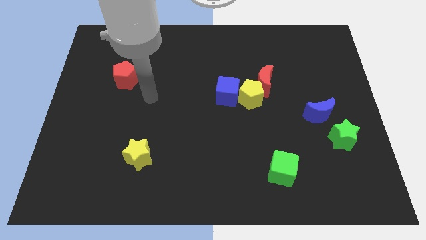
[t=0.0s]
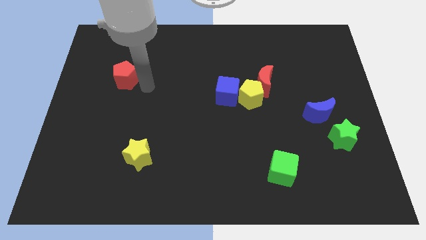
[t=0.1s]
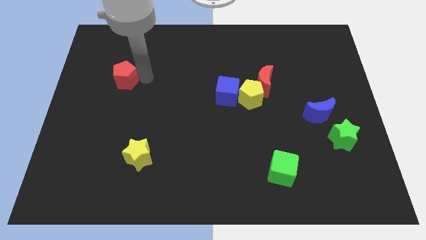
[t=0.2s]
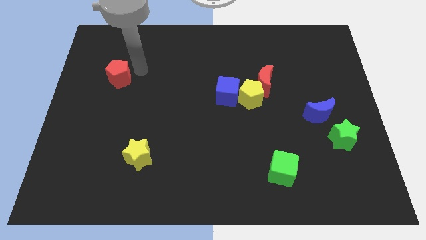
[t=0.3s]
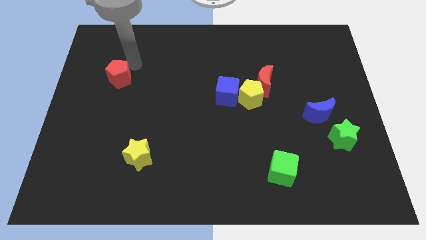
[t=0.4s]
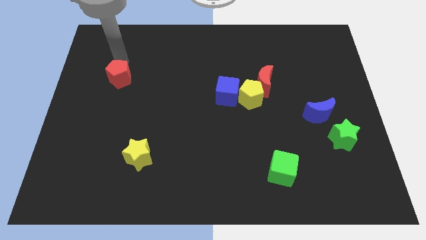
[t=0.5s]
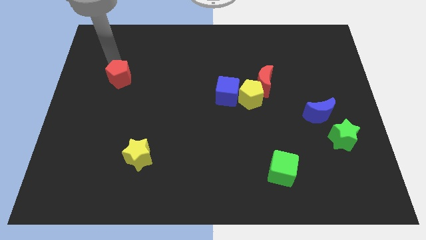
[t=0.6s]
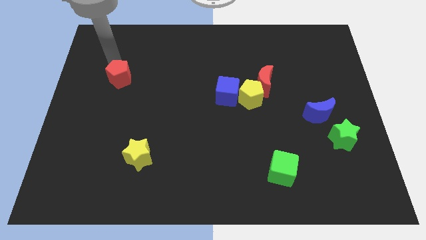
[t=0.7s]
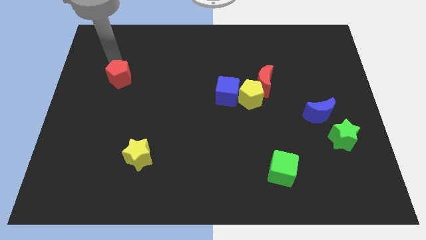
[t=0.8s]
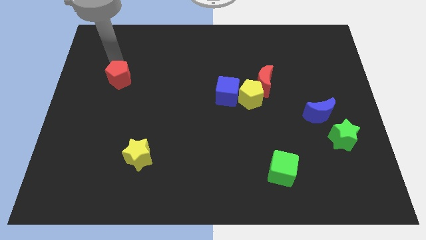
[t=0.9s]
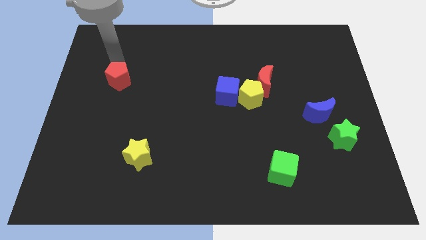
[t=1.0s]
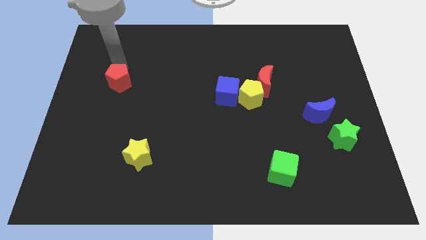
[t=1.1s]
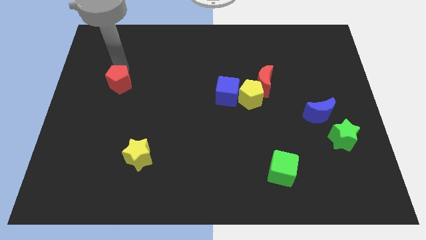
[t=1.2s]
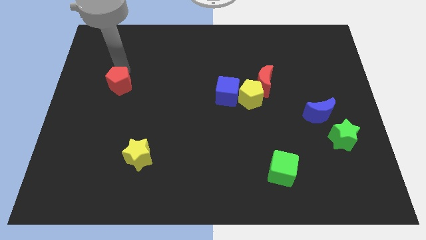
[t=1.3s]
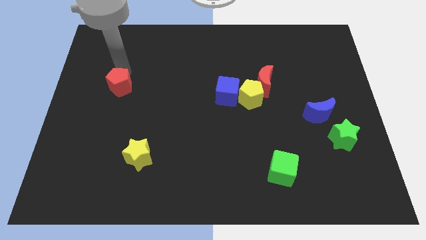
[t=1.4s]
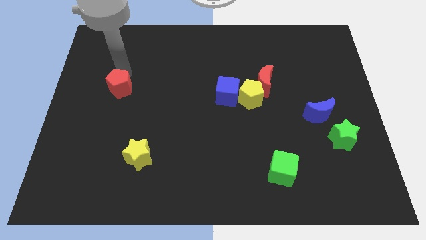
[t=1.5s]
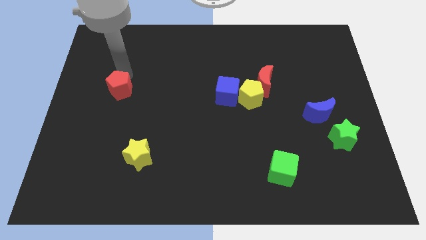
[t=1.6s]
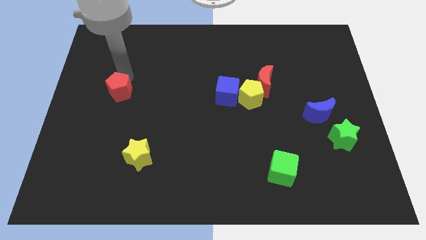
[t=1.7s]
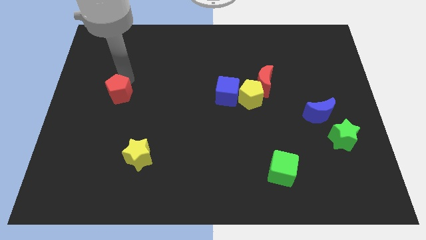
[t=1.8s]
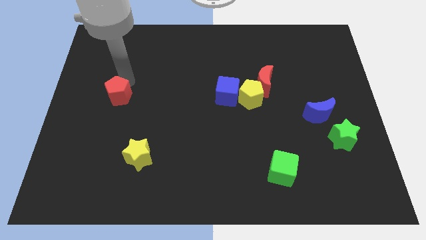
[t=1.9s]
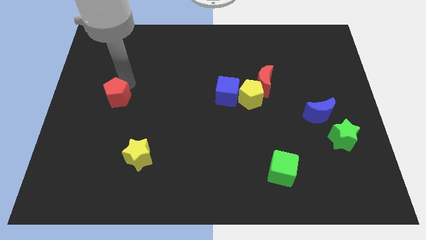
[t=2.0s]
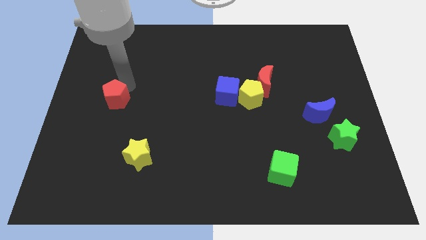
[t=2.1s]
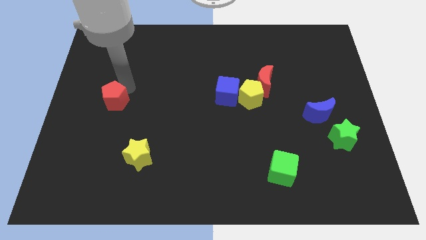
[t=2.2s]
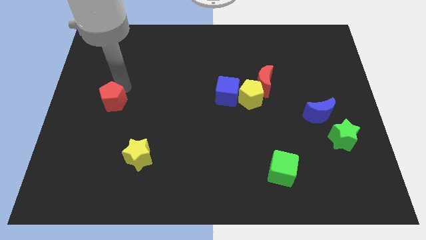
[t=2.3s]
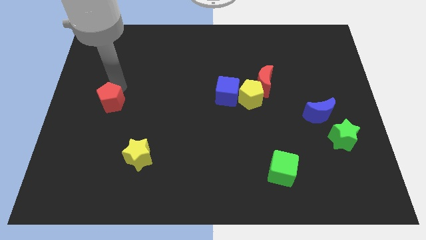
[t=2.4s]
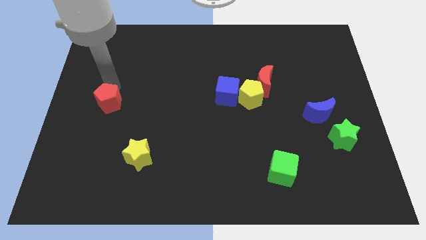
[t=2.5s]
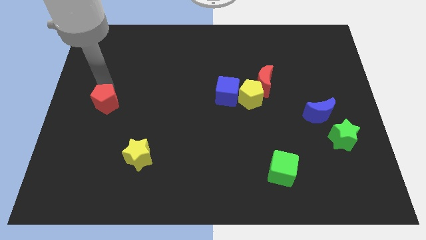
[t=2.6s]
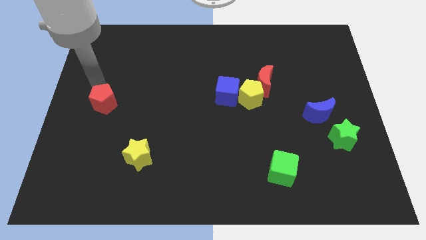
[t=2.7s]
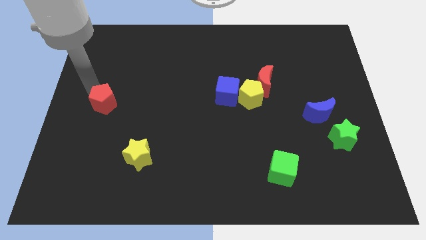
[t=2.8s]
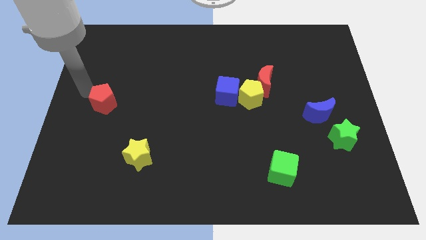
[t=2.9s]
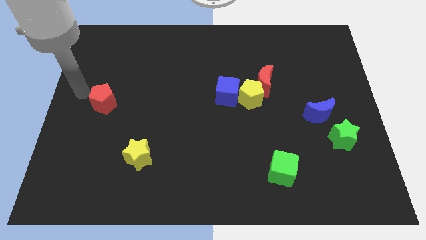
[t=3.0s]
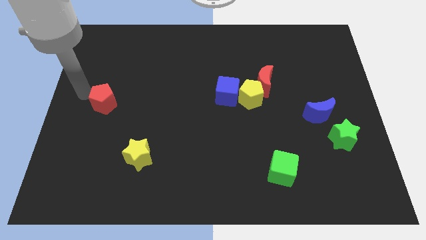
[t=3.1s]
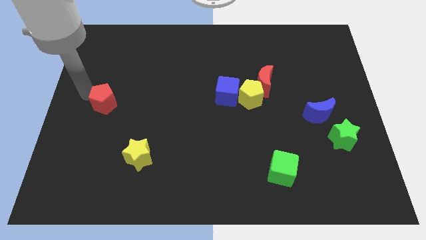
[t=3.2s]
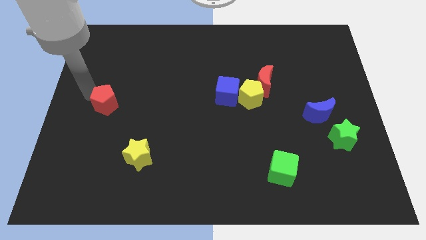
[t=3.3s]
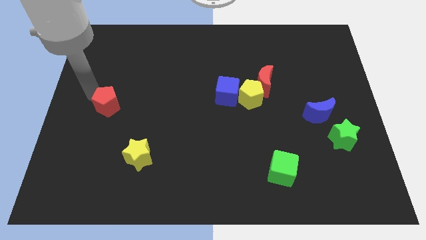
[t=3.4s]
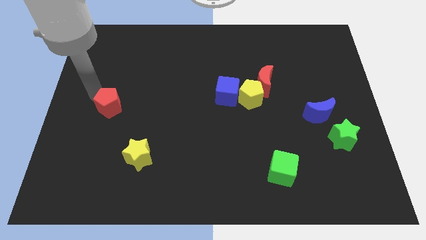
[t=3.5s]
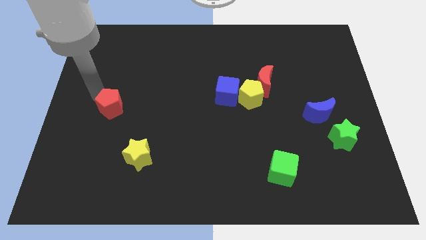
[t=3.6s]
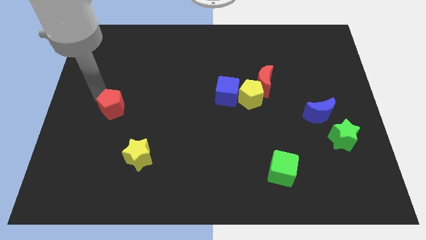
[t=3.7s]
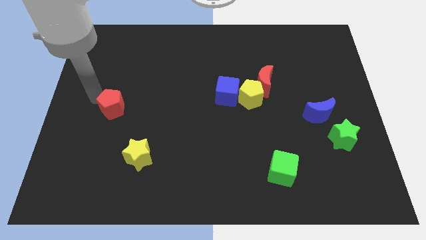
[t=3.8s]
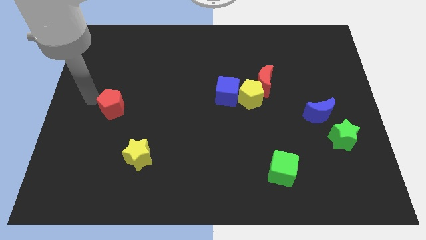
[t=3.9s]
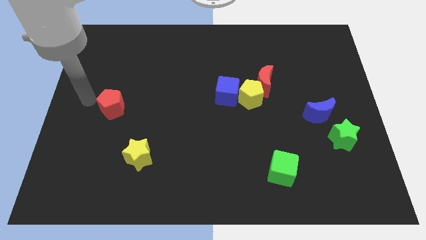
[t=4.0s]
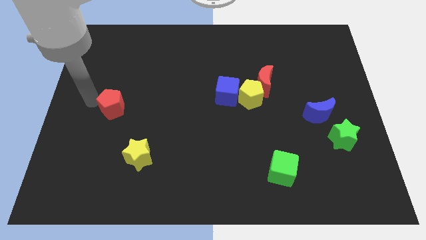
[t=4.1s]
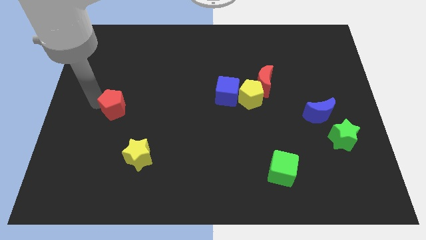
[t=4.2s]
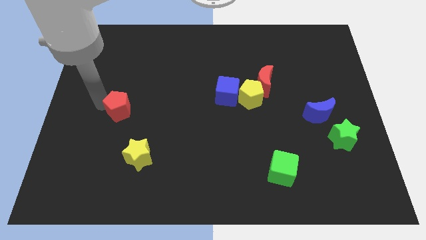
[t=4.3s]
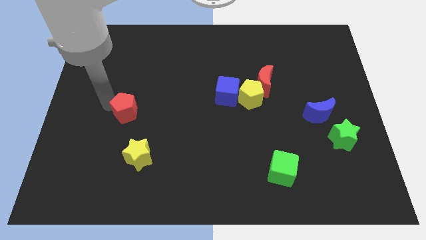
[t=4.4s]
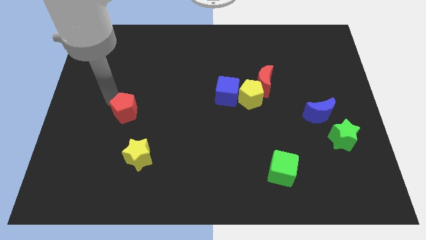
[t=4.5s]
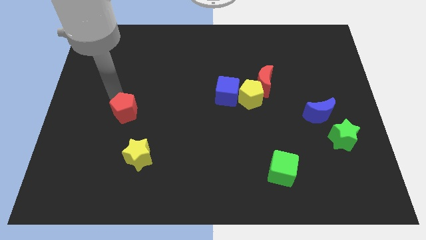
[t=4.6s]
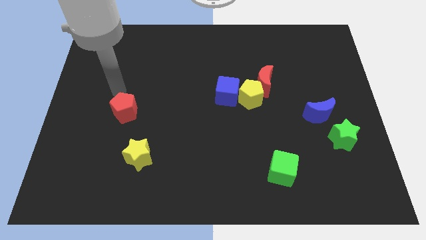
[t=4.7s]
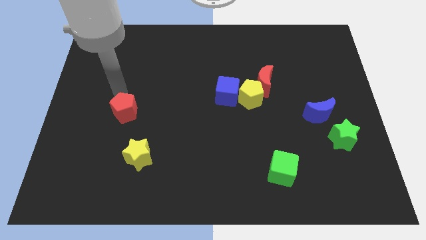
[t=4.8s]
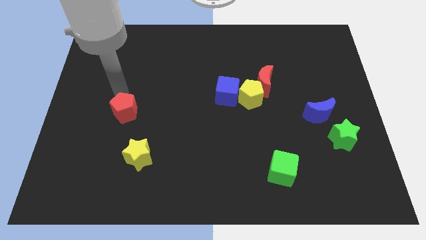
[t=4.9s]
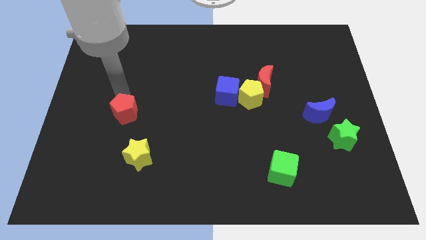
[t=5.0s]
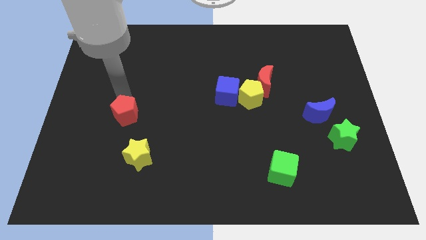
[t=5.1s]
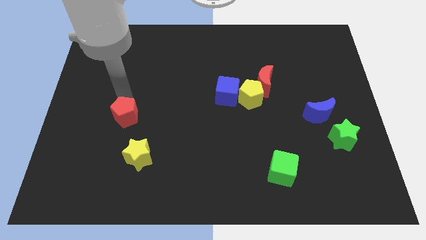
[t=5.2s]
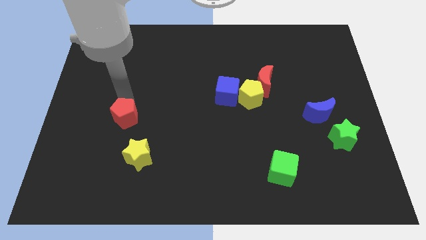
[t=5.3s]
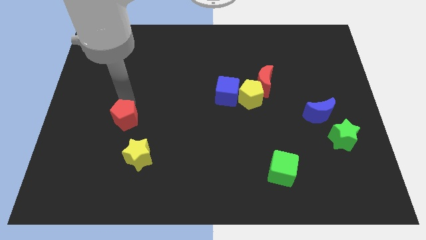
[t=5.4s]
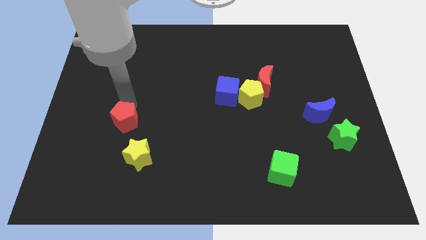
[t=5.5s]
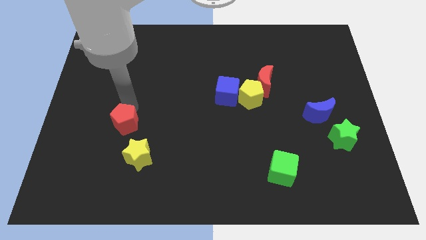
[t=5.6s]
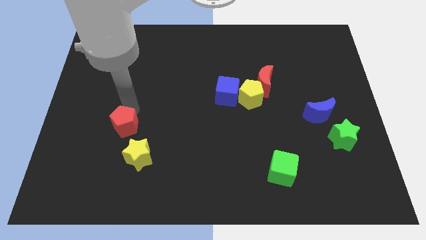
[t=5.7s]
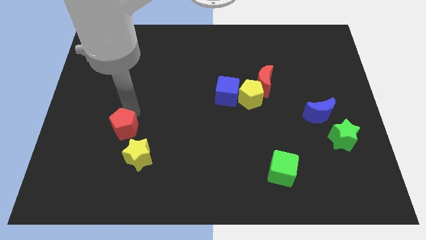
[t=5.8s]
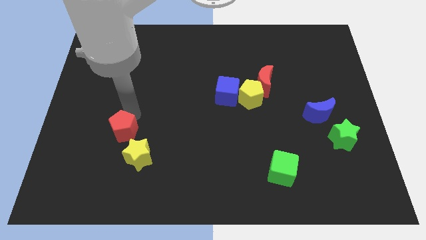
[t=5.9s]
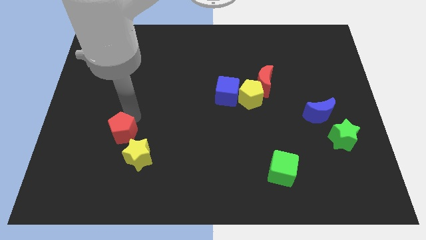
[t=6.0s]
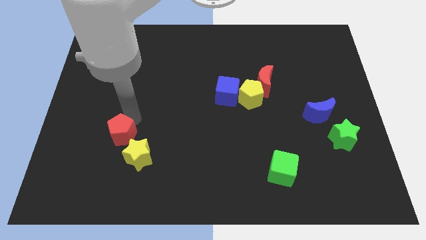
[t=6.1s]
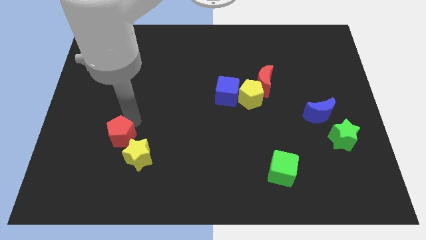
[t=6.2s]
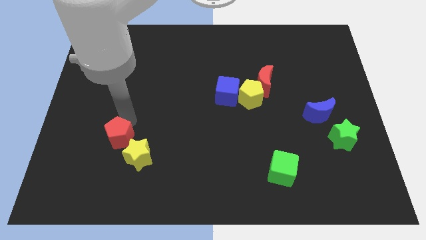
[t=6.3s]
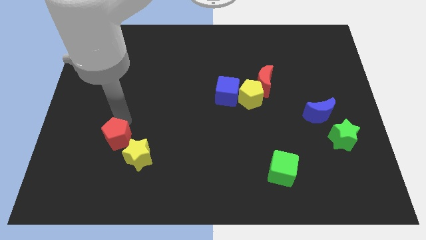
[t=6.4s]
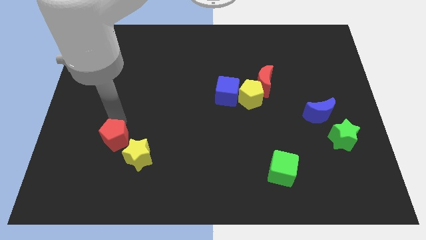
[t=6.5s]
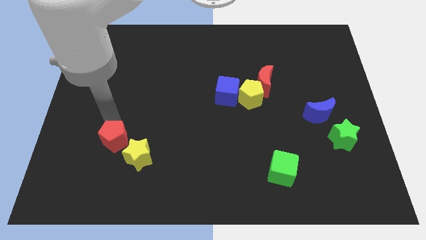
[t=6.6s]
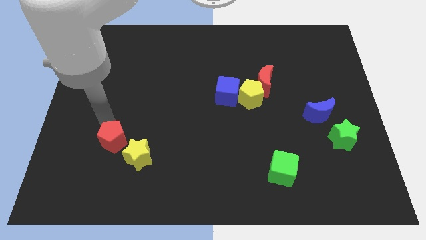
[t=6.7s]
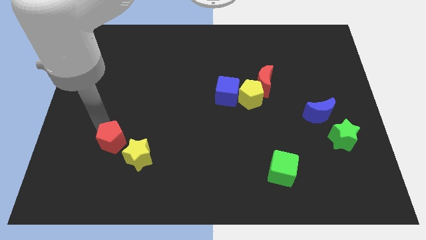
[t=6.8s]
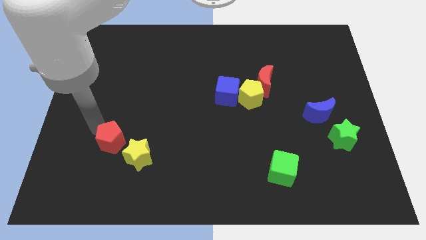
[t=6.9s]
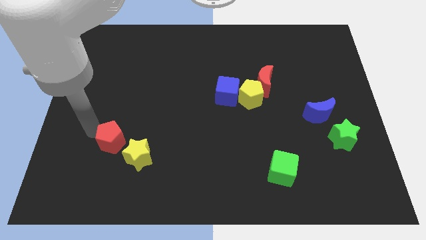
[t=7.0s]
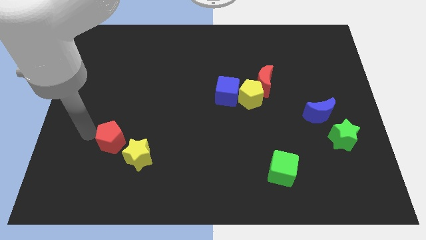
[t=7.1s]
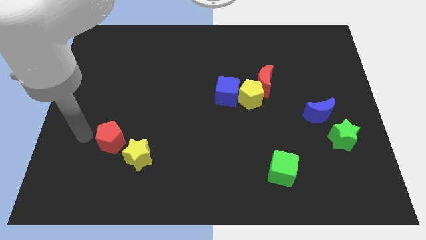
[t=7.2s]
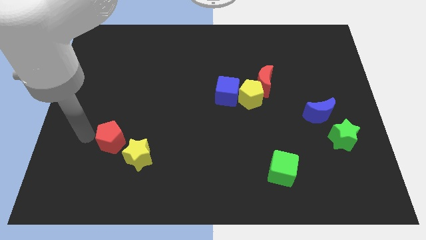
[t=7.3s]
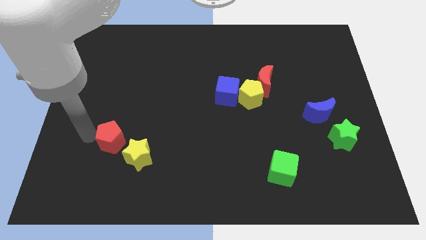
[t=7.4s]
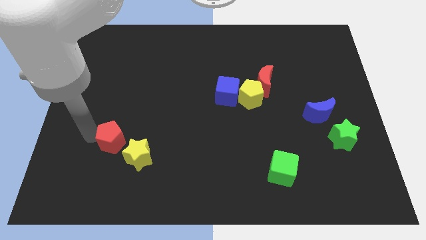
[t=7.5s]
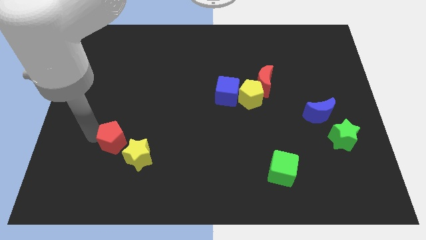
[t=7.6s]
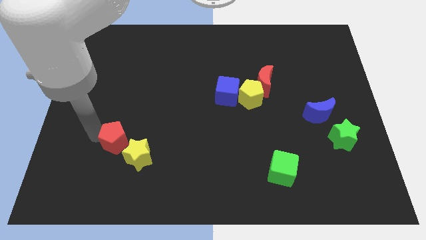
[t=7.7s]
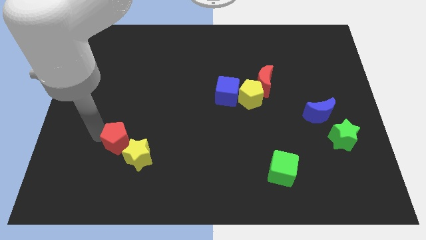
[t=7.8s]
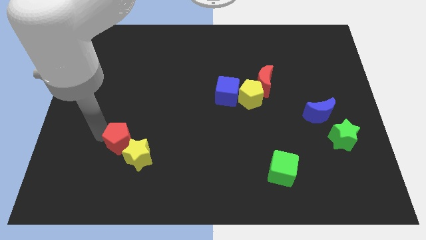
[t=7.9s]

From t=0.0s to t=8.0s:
move the red pentagon to the yellow star
